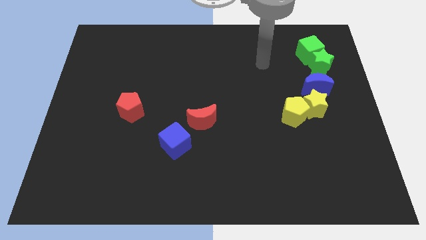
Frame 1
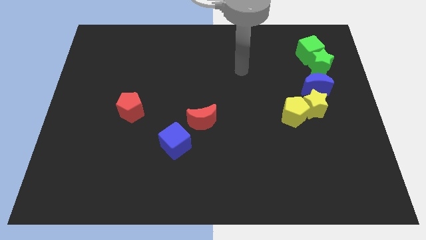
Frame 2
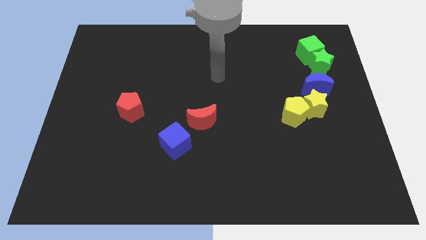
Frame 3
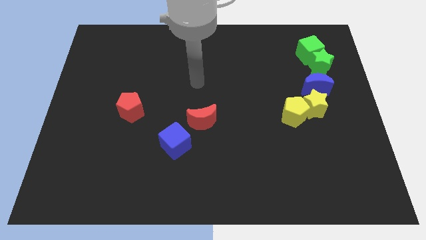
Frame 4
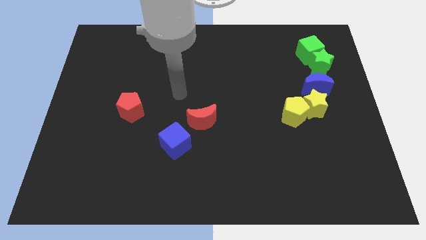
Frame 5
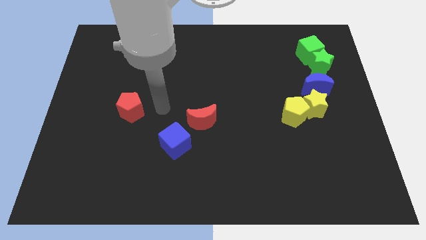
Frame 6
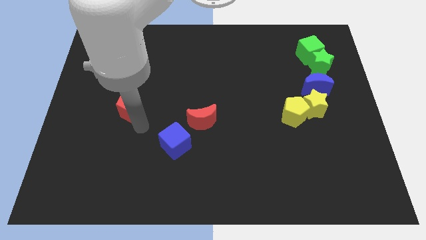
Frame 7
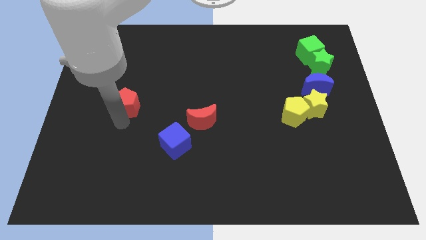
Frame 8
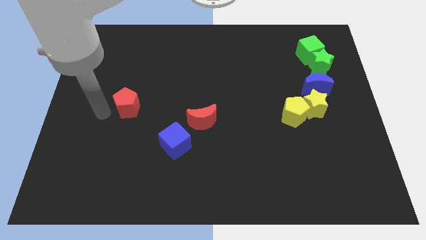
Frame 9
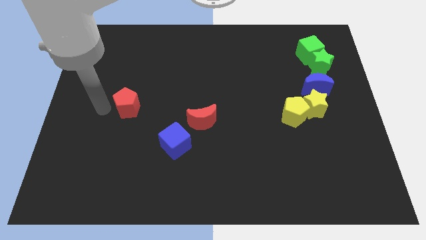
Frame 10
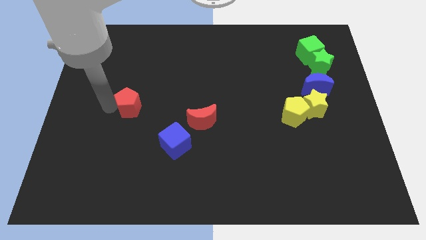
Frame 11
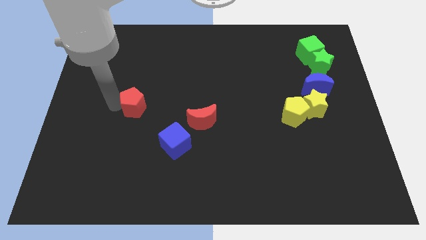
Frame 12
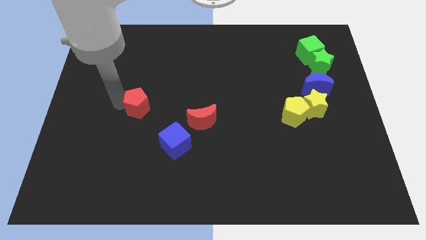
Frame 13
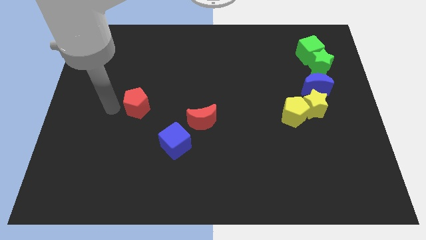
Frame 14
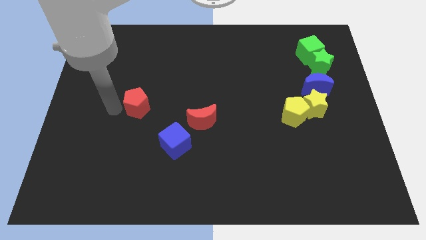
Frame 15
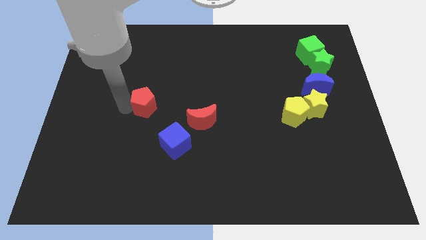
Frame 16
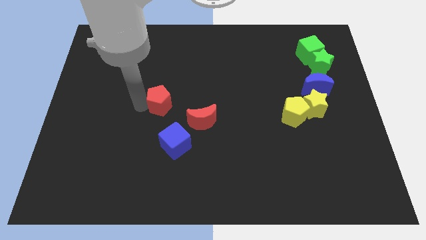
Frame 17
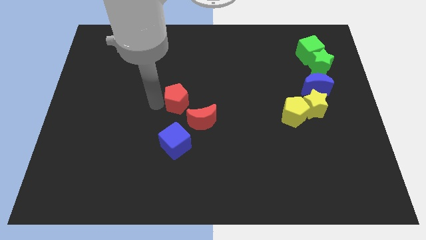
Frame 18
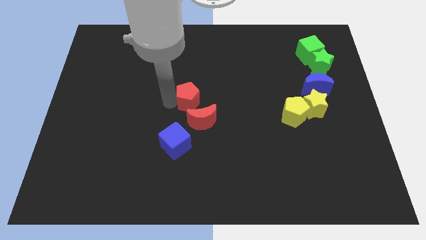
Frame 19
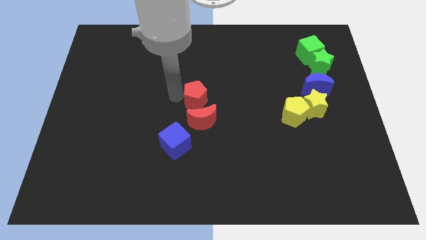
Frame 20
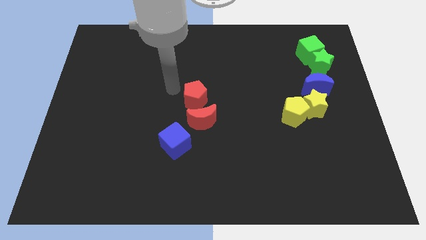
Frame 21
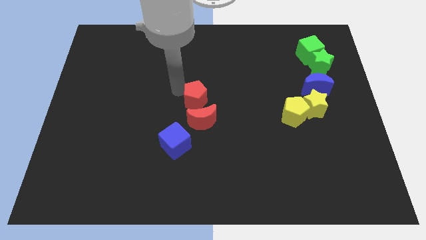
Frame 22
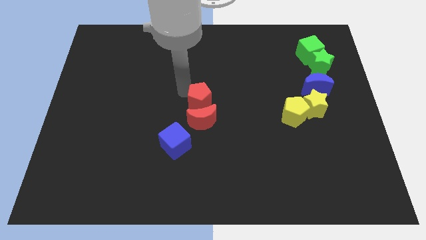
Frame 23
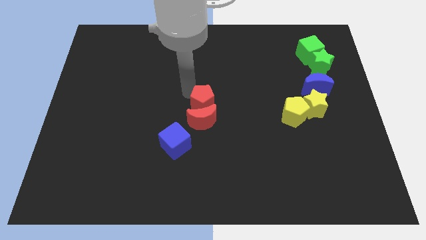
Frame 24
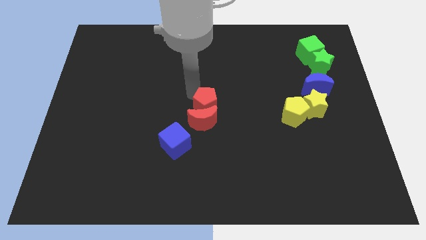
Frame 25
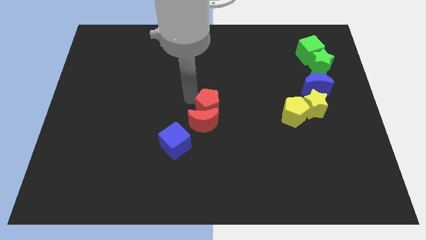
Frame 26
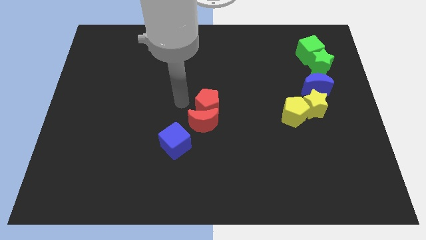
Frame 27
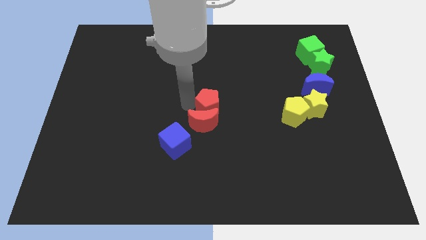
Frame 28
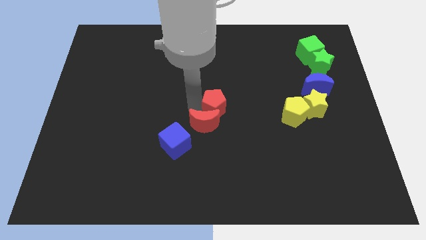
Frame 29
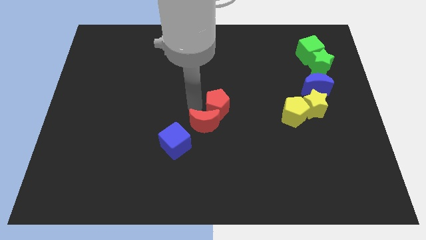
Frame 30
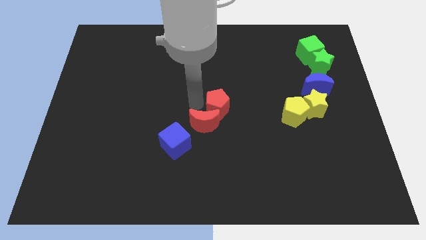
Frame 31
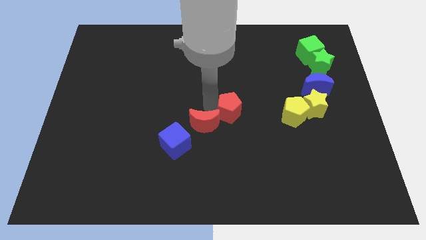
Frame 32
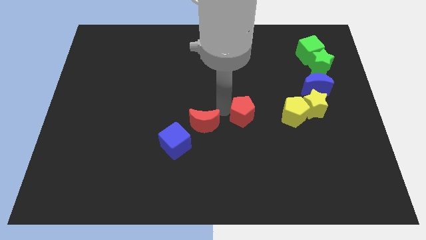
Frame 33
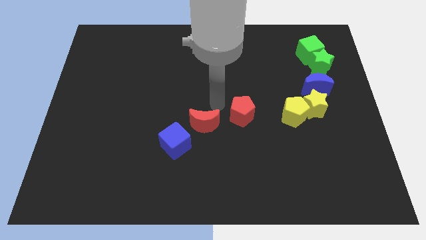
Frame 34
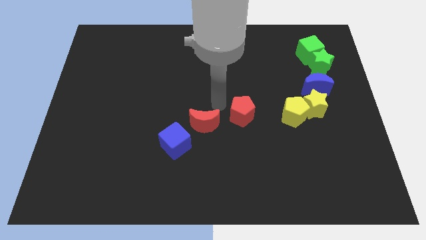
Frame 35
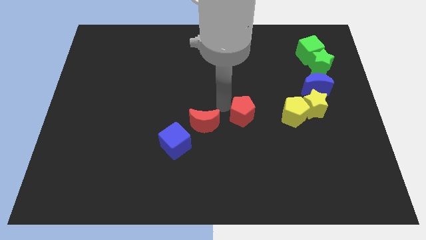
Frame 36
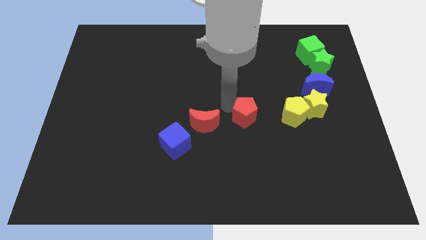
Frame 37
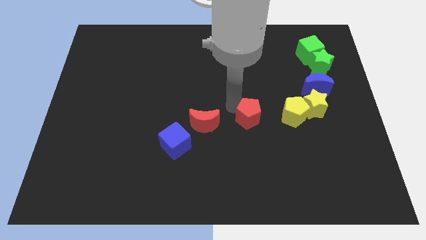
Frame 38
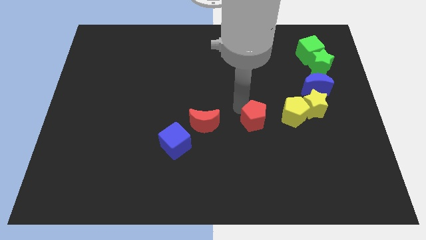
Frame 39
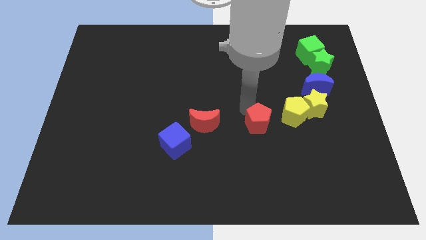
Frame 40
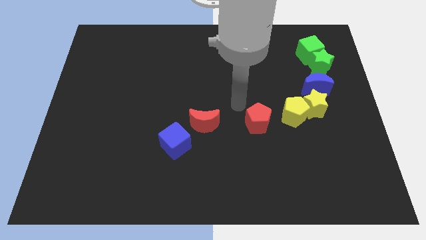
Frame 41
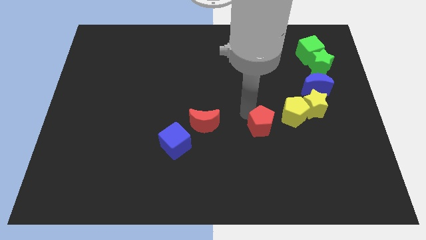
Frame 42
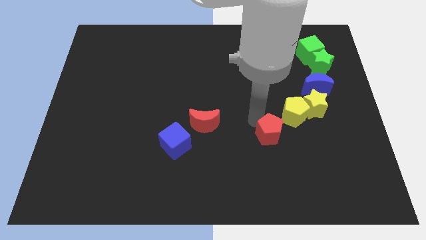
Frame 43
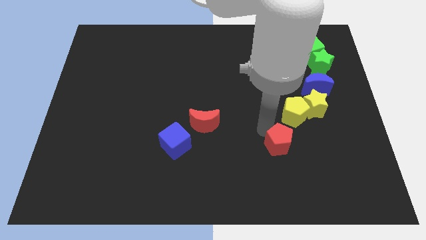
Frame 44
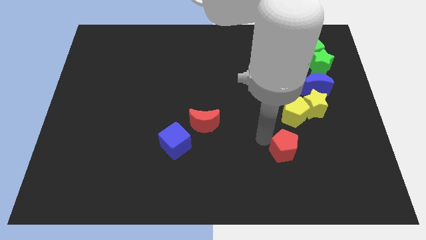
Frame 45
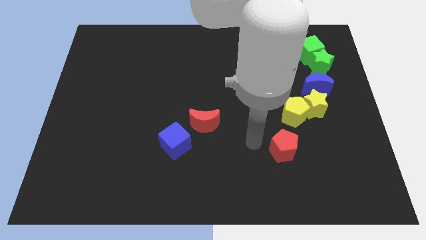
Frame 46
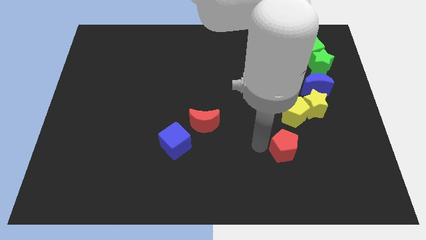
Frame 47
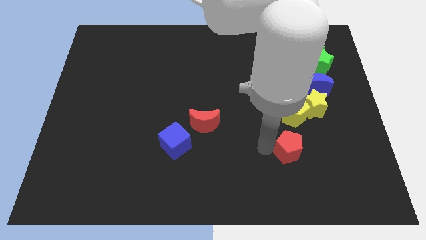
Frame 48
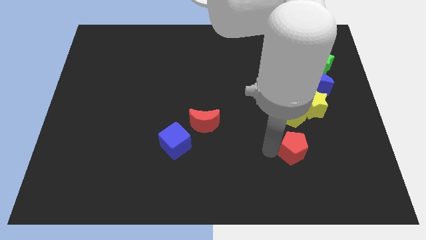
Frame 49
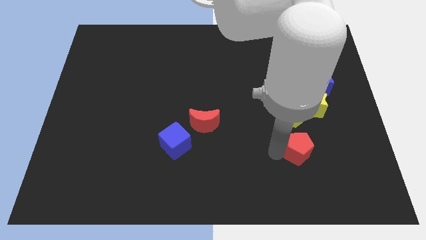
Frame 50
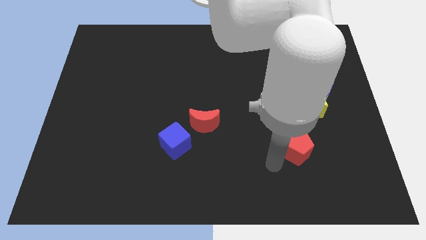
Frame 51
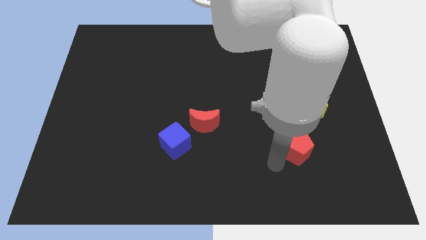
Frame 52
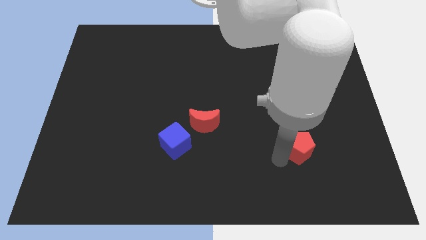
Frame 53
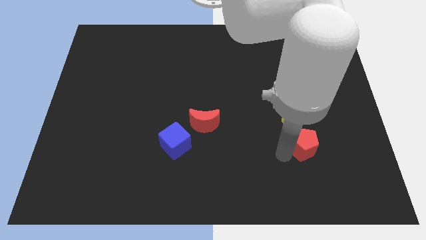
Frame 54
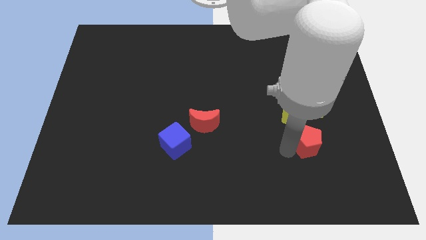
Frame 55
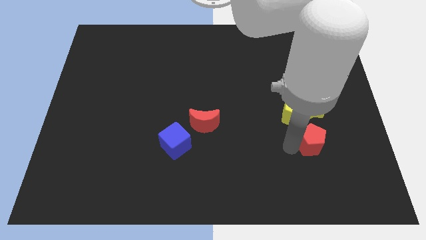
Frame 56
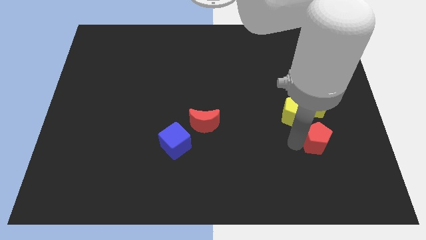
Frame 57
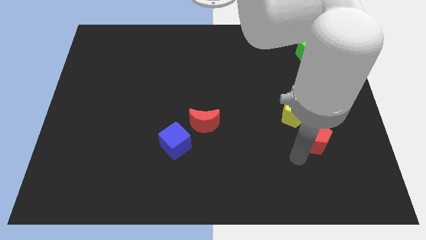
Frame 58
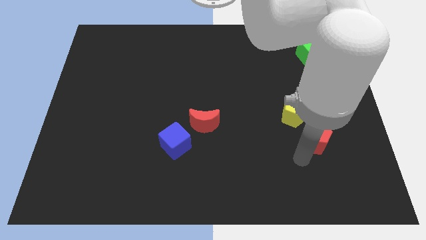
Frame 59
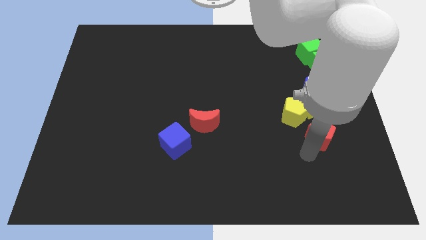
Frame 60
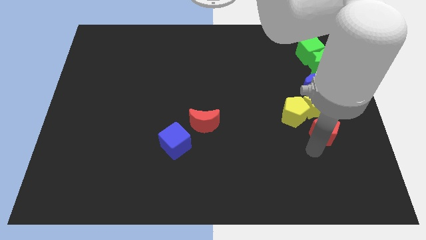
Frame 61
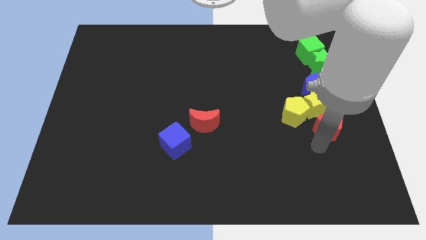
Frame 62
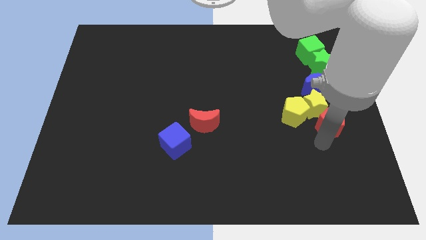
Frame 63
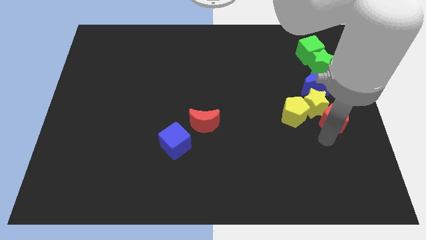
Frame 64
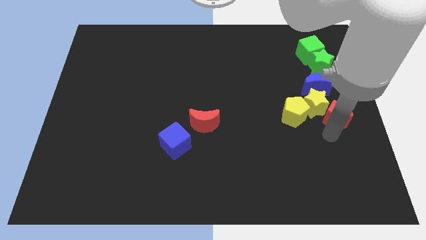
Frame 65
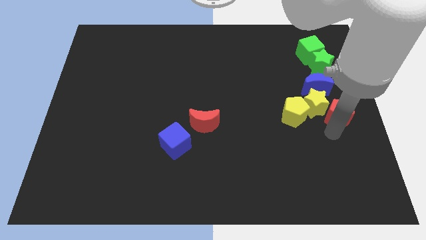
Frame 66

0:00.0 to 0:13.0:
slide the red pentagon below the green star

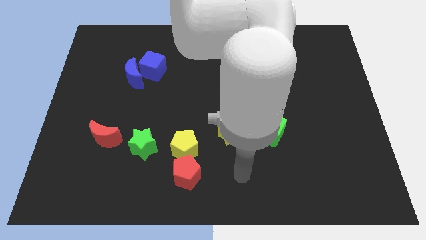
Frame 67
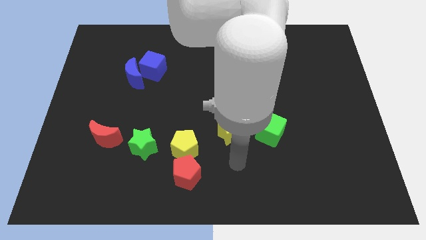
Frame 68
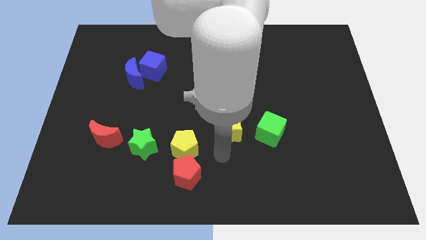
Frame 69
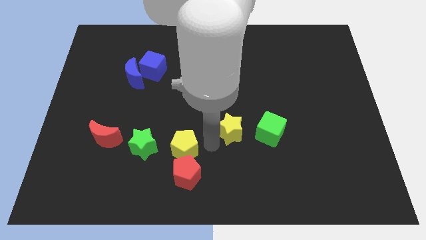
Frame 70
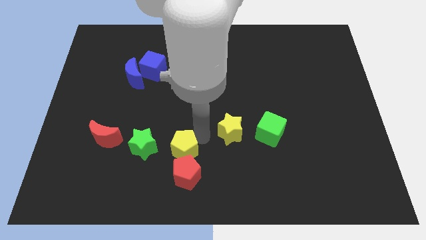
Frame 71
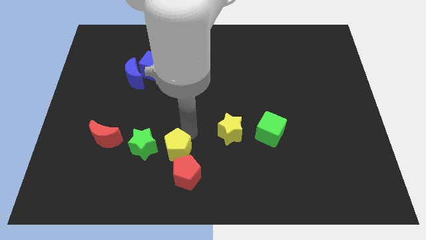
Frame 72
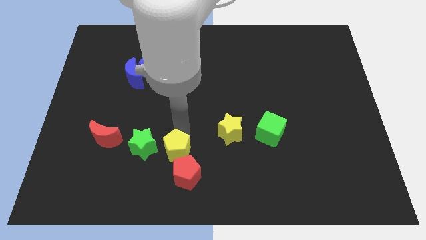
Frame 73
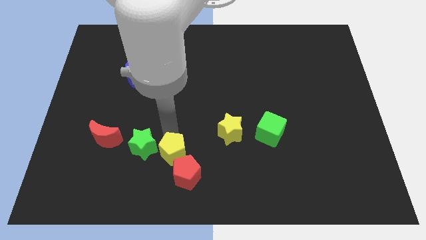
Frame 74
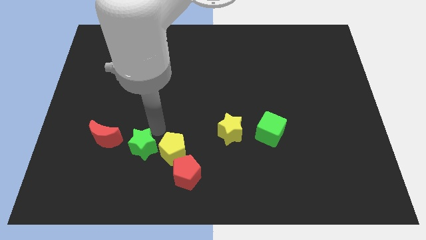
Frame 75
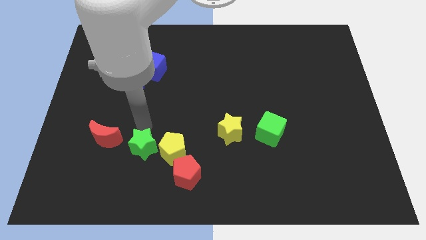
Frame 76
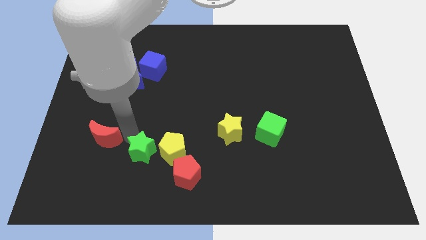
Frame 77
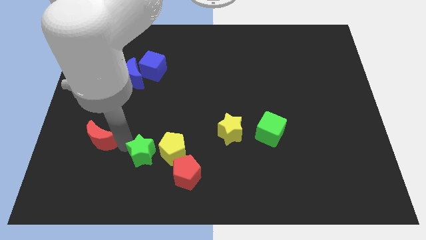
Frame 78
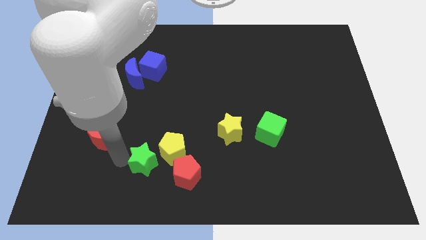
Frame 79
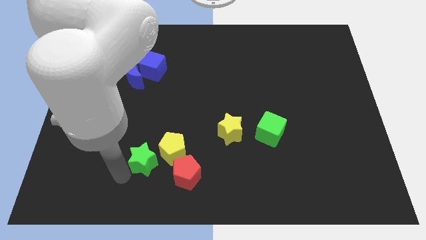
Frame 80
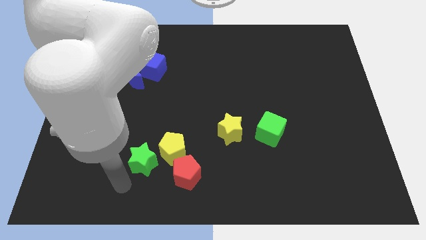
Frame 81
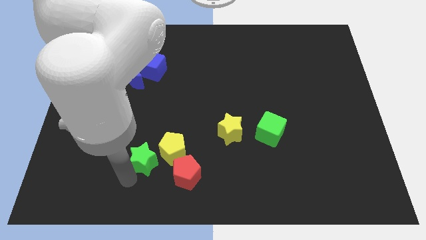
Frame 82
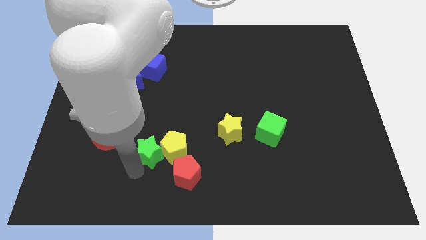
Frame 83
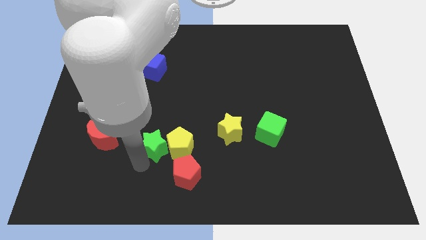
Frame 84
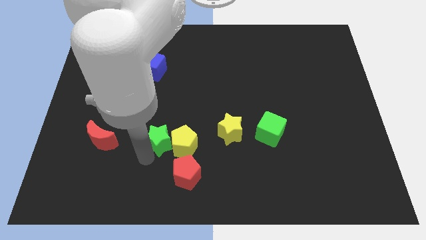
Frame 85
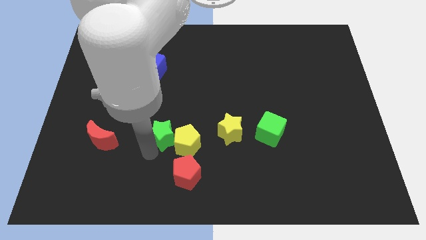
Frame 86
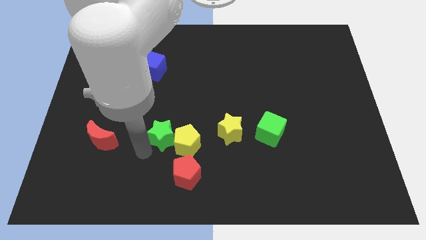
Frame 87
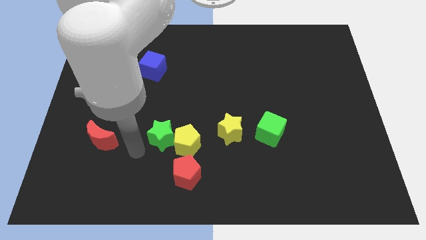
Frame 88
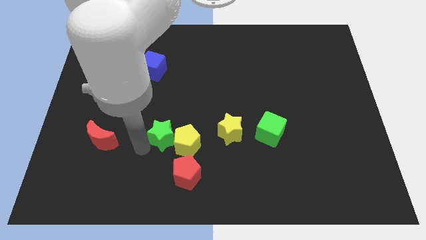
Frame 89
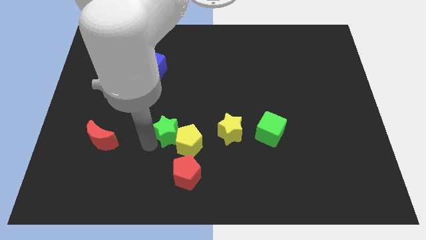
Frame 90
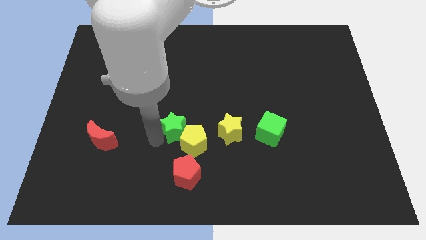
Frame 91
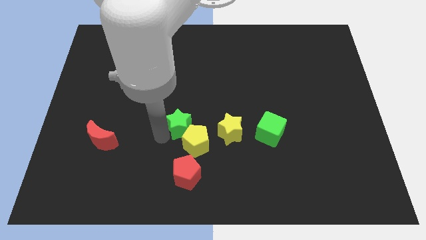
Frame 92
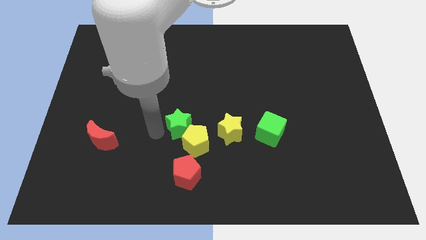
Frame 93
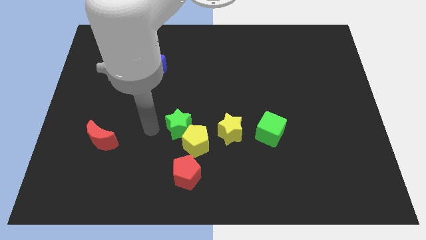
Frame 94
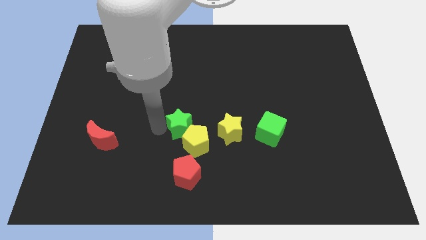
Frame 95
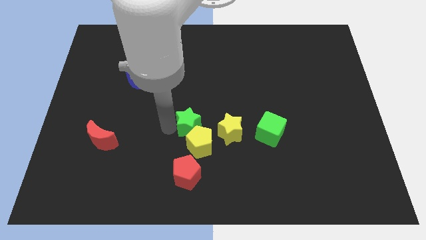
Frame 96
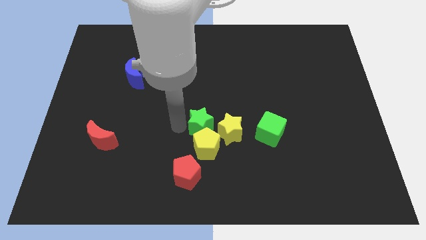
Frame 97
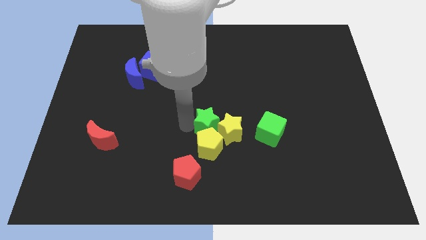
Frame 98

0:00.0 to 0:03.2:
put the green star to the top right side of the yellow pentagon
